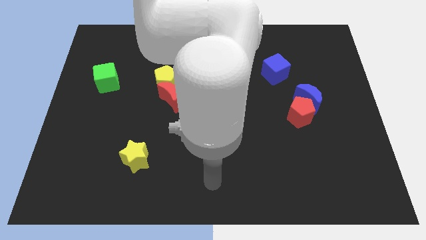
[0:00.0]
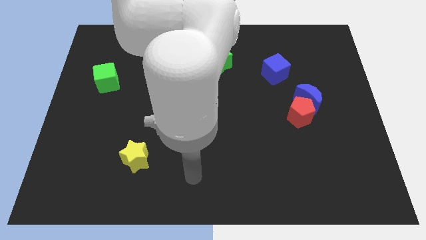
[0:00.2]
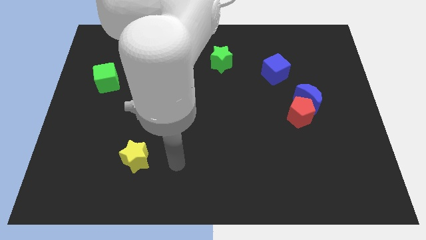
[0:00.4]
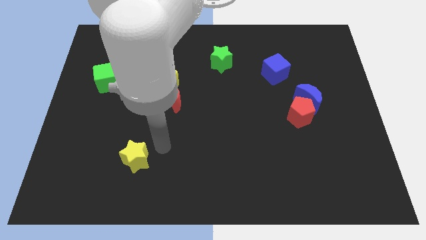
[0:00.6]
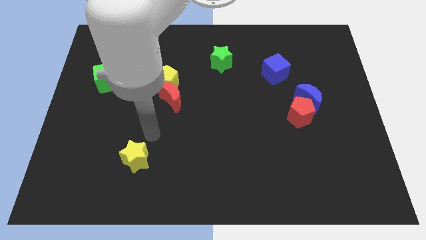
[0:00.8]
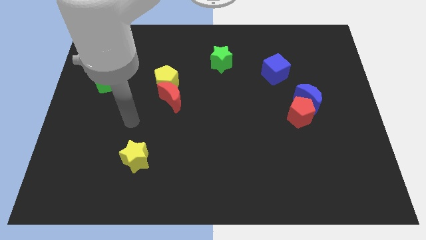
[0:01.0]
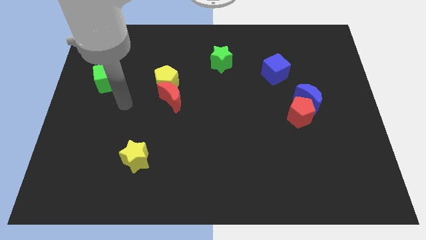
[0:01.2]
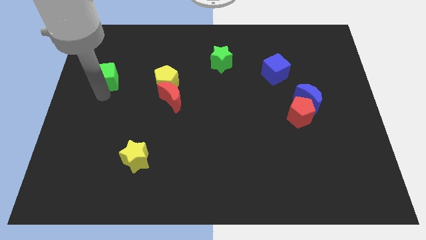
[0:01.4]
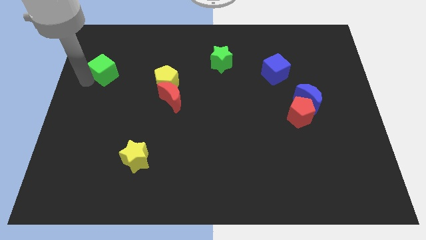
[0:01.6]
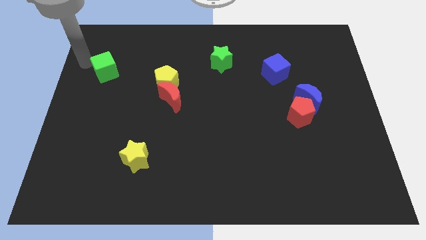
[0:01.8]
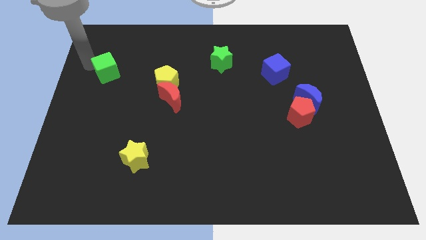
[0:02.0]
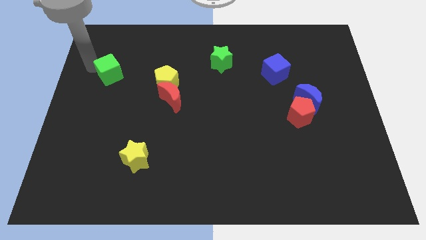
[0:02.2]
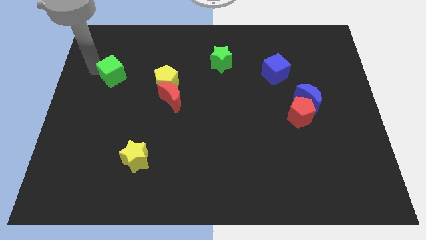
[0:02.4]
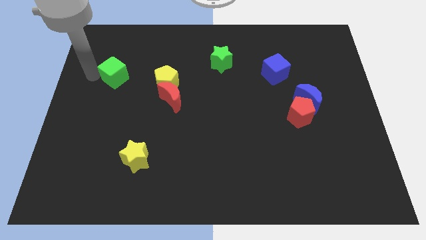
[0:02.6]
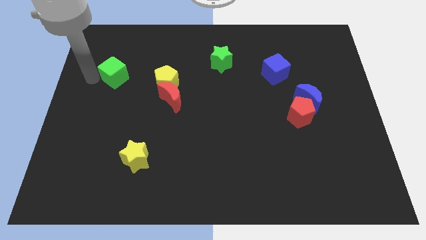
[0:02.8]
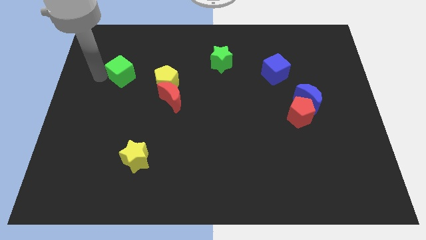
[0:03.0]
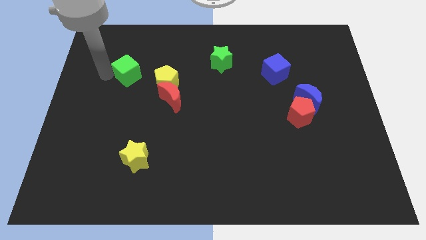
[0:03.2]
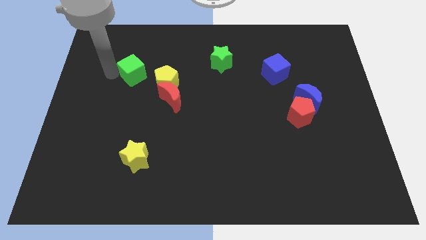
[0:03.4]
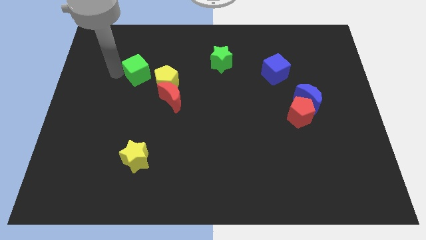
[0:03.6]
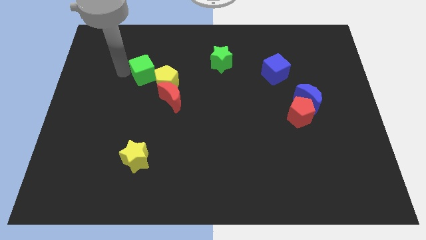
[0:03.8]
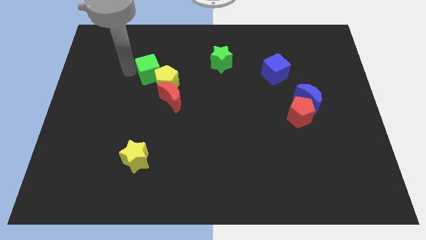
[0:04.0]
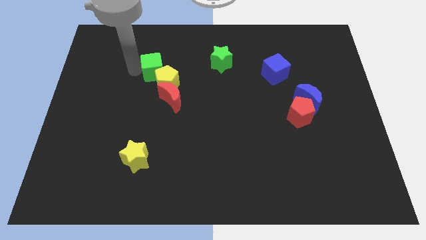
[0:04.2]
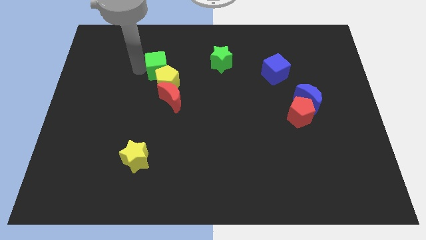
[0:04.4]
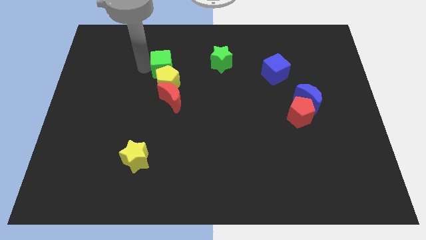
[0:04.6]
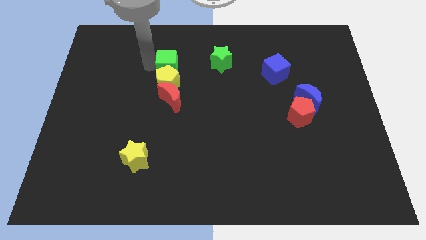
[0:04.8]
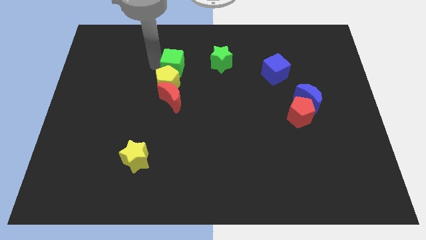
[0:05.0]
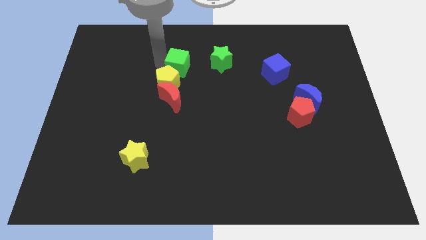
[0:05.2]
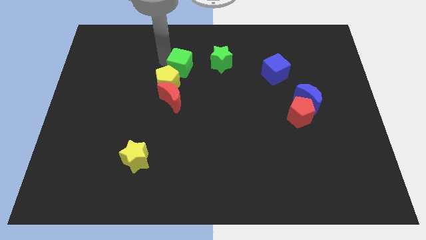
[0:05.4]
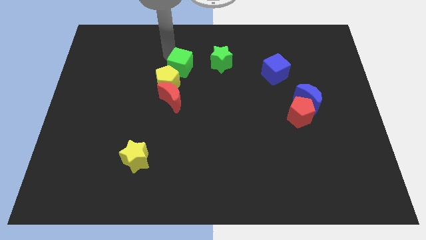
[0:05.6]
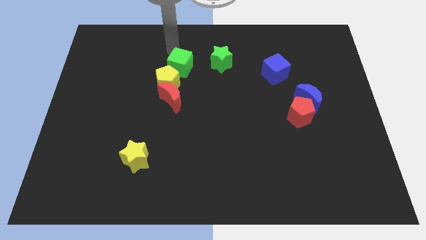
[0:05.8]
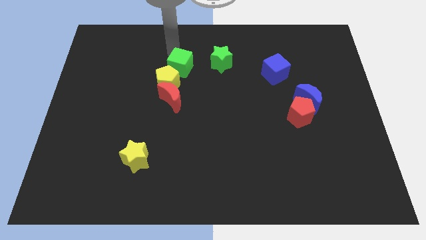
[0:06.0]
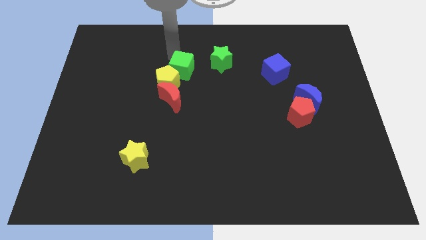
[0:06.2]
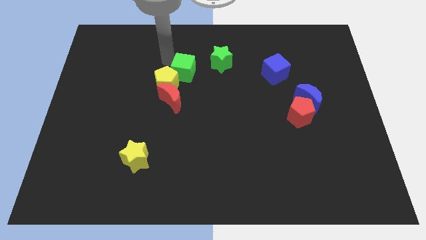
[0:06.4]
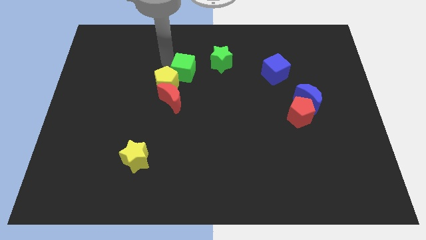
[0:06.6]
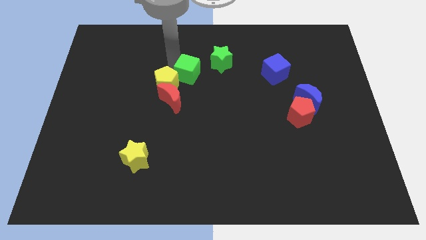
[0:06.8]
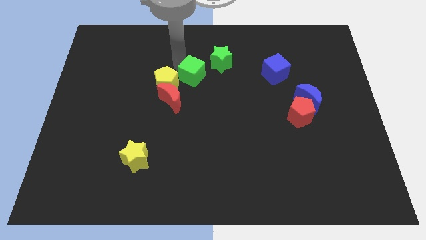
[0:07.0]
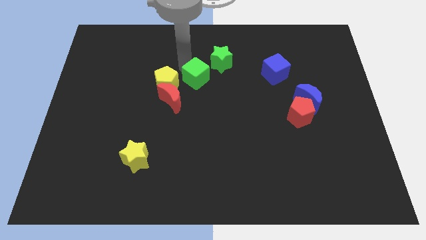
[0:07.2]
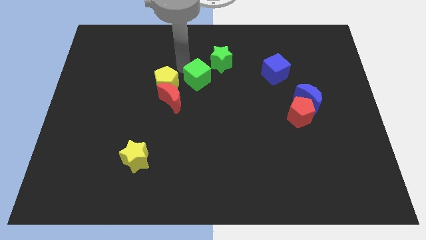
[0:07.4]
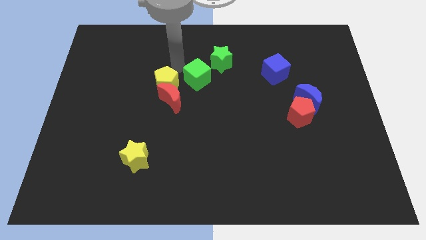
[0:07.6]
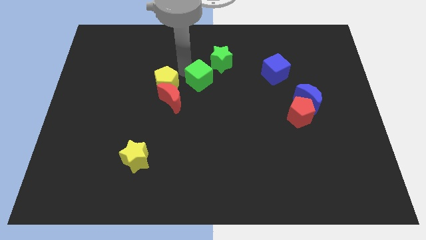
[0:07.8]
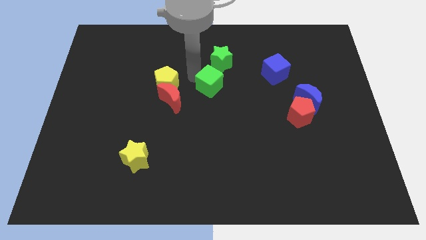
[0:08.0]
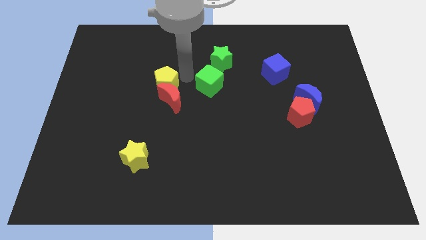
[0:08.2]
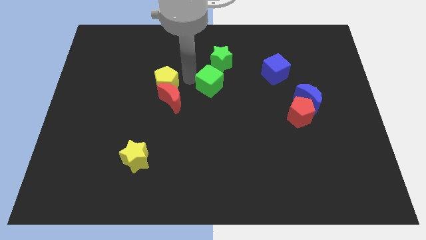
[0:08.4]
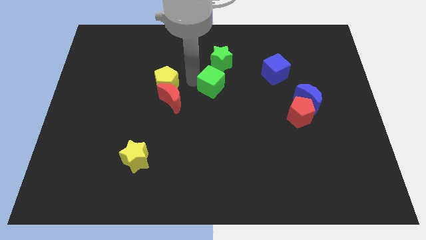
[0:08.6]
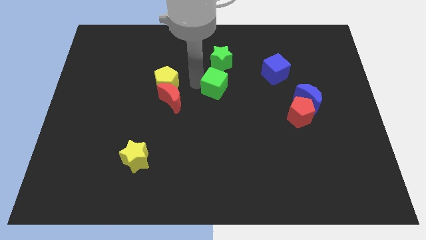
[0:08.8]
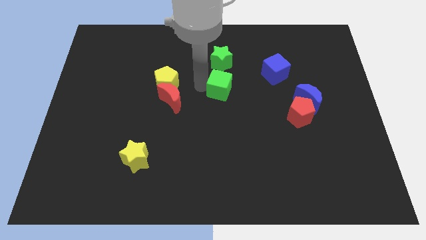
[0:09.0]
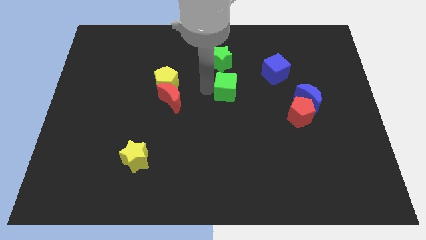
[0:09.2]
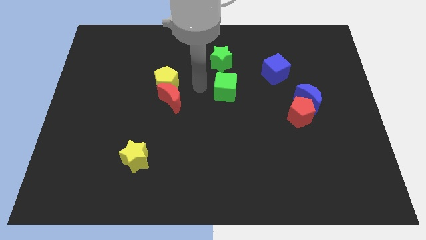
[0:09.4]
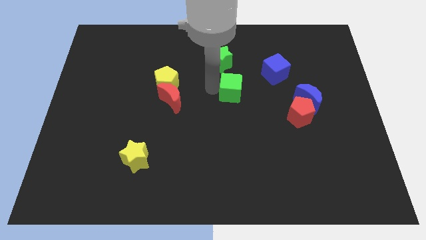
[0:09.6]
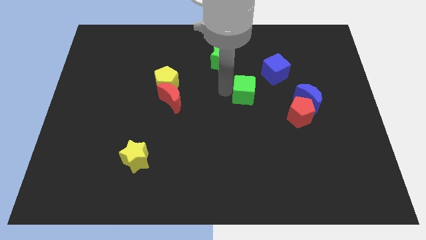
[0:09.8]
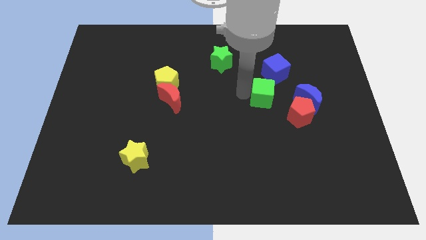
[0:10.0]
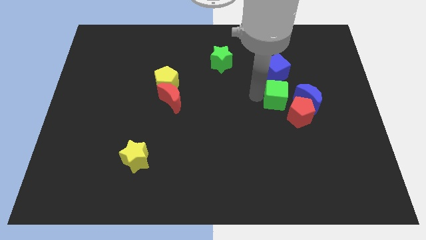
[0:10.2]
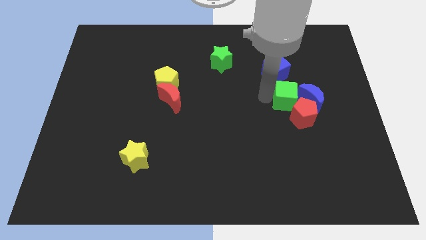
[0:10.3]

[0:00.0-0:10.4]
move the green cube next to the blue moon

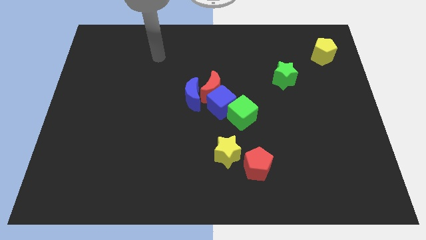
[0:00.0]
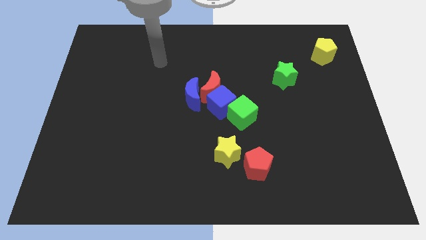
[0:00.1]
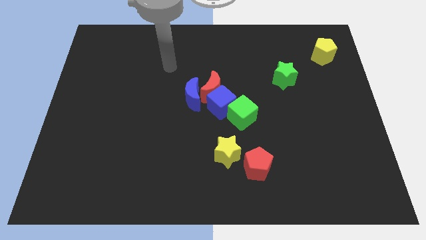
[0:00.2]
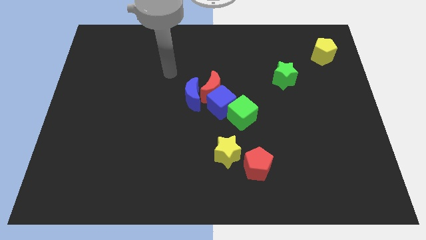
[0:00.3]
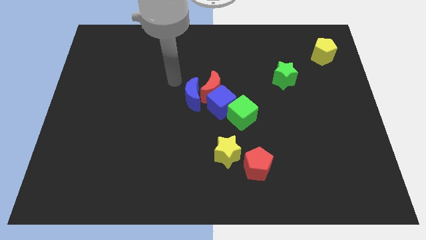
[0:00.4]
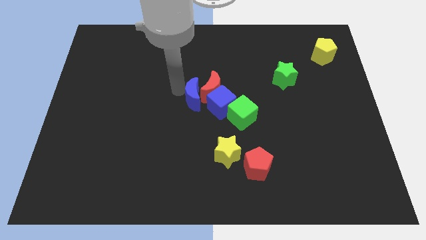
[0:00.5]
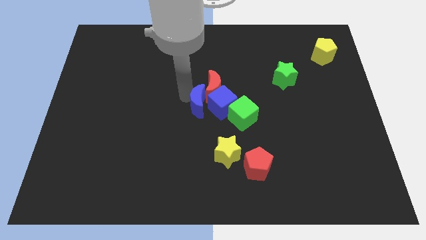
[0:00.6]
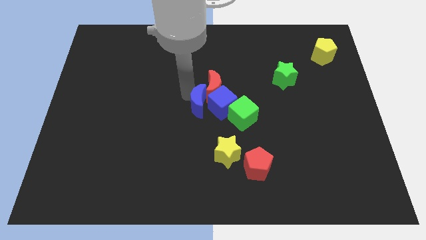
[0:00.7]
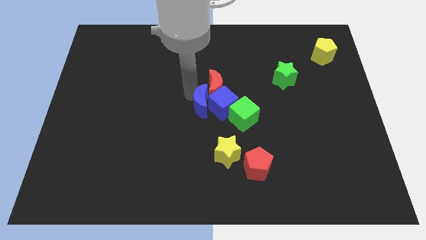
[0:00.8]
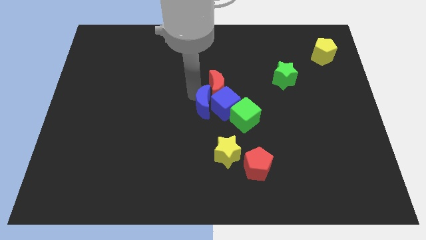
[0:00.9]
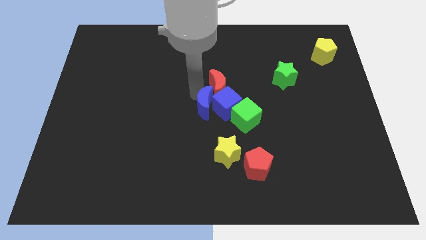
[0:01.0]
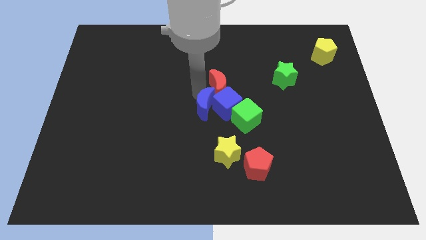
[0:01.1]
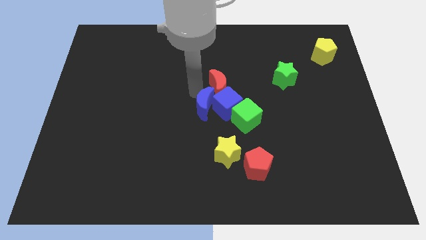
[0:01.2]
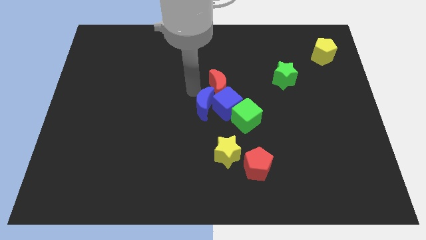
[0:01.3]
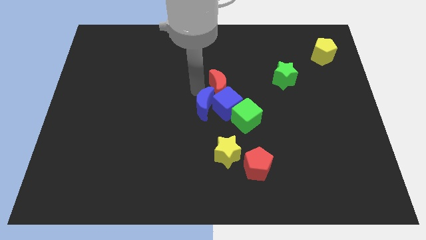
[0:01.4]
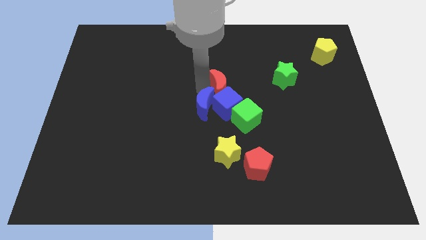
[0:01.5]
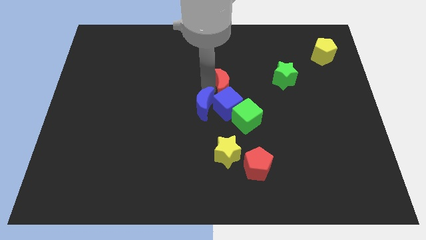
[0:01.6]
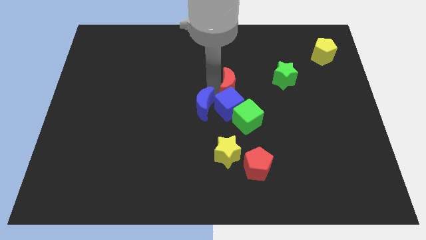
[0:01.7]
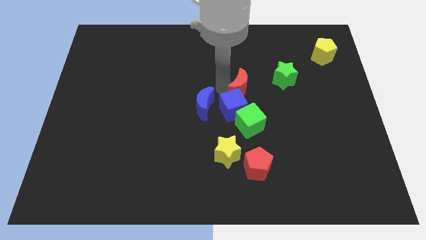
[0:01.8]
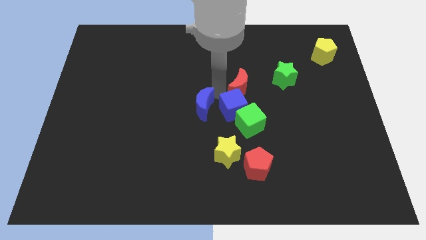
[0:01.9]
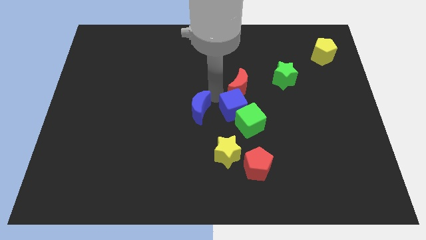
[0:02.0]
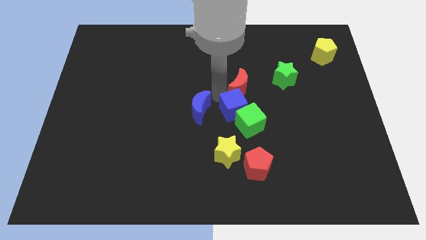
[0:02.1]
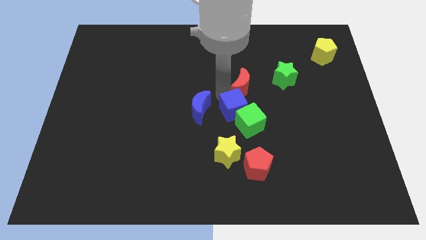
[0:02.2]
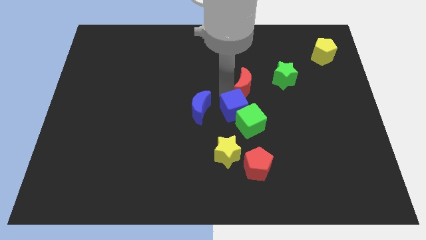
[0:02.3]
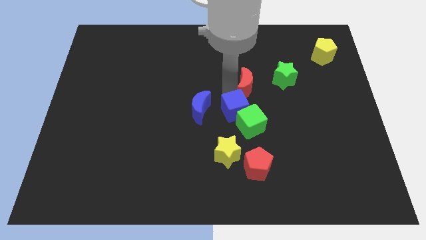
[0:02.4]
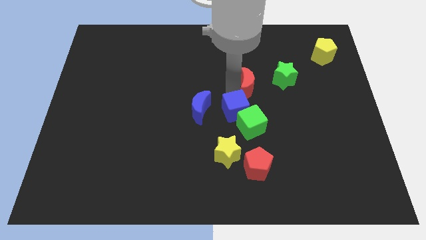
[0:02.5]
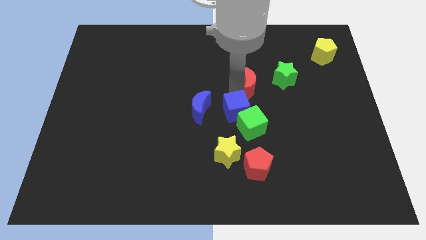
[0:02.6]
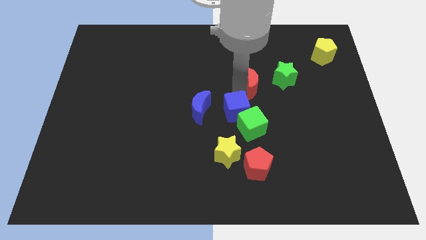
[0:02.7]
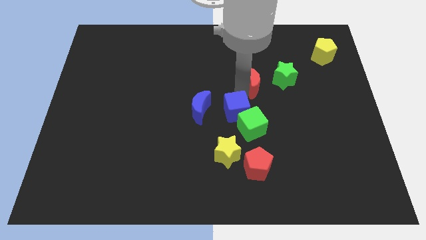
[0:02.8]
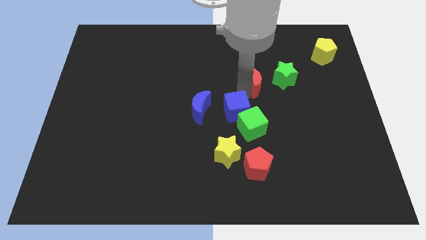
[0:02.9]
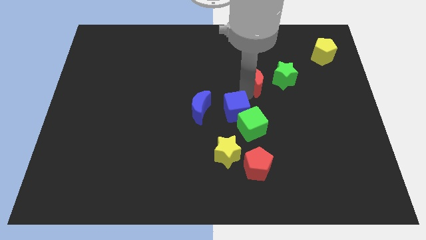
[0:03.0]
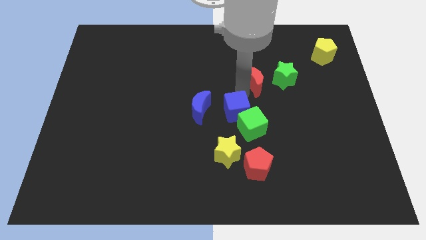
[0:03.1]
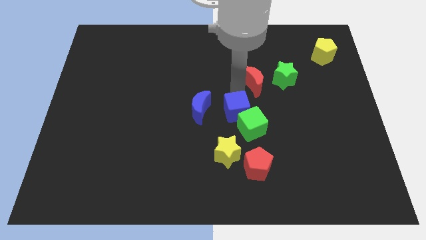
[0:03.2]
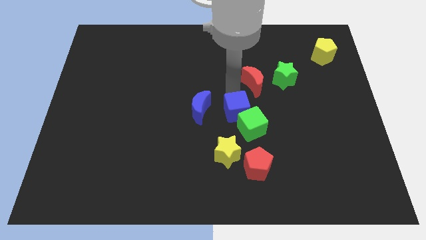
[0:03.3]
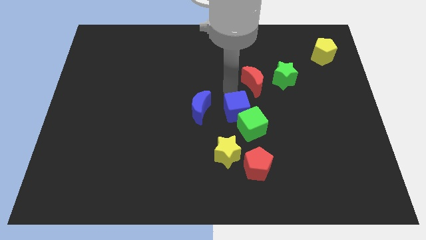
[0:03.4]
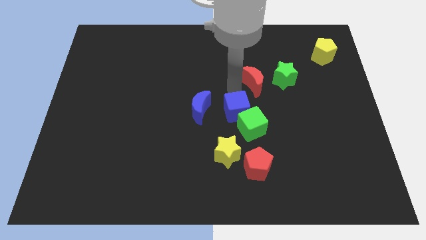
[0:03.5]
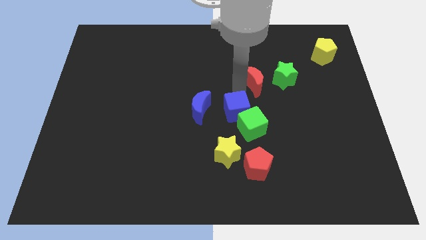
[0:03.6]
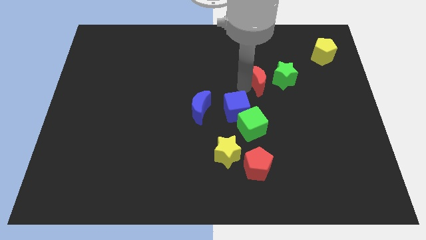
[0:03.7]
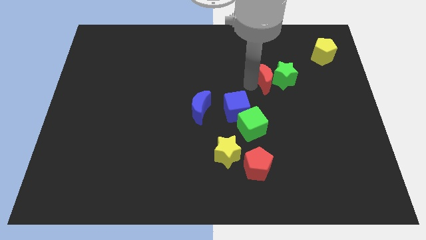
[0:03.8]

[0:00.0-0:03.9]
push the red moon close to the green star
